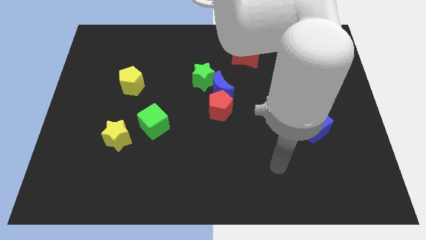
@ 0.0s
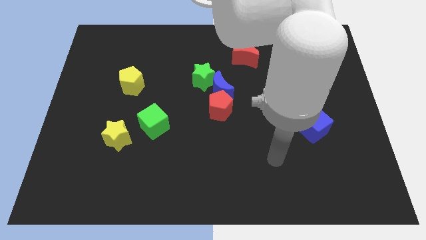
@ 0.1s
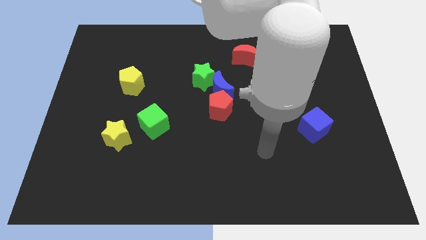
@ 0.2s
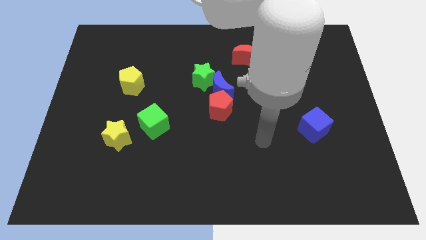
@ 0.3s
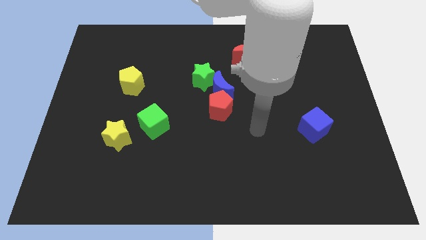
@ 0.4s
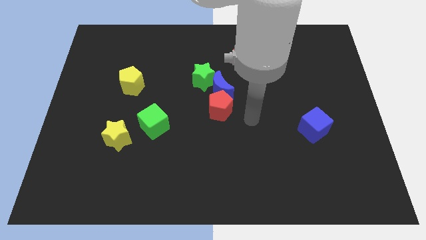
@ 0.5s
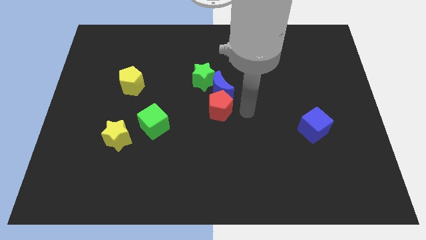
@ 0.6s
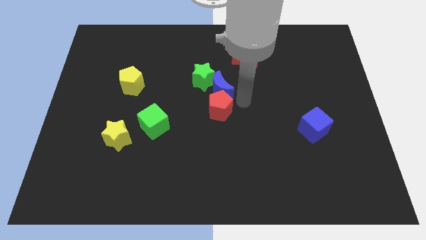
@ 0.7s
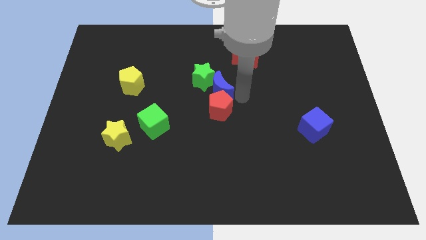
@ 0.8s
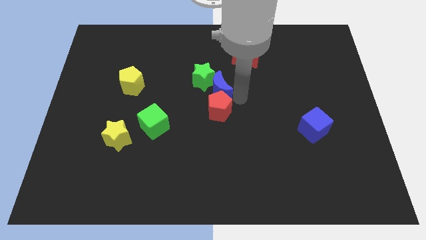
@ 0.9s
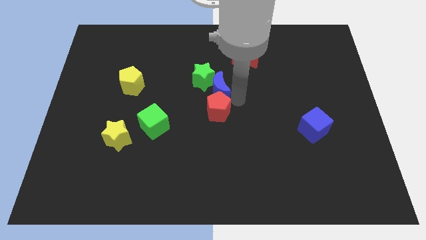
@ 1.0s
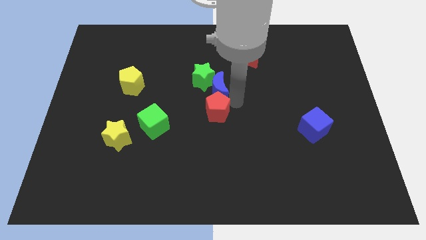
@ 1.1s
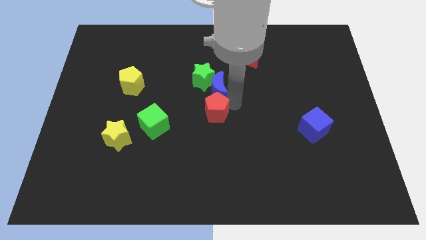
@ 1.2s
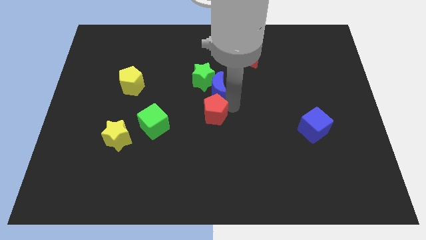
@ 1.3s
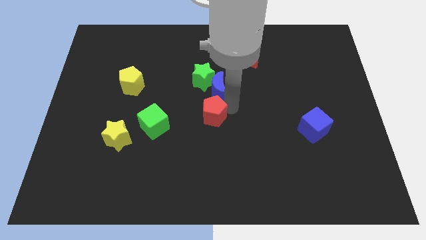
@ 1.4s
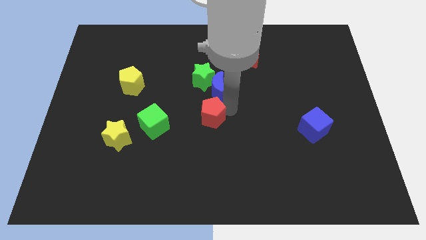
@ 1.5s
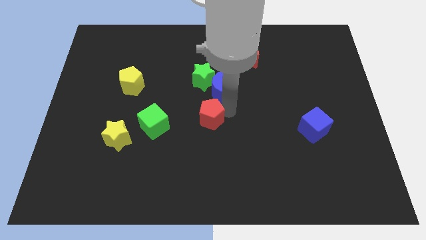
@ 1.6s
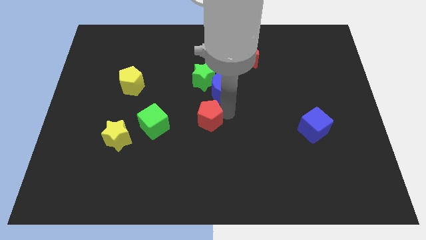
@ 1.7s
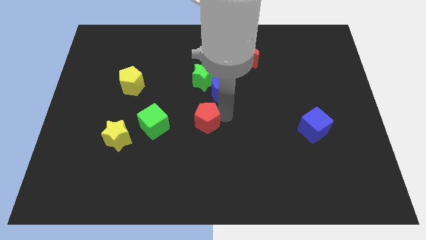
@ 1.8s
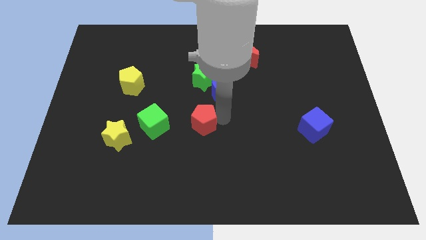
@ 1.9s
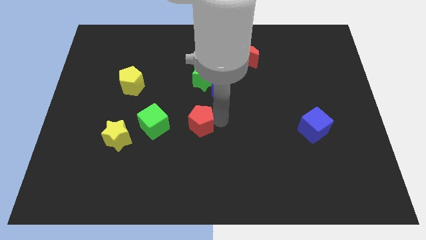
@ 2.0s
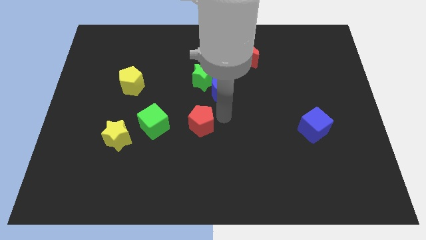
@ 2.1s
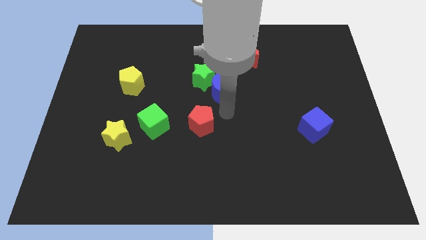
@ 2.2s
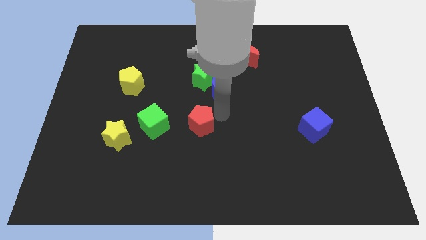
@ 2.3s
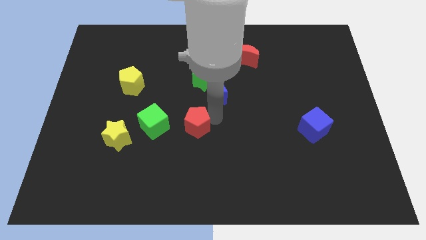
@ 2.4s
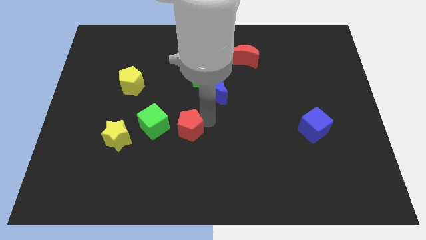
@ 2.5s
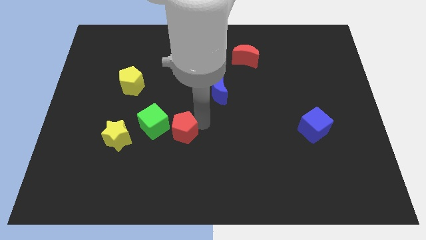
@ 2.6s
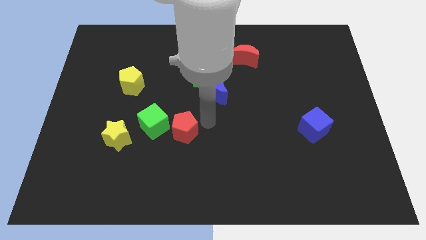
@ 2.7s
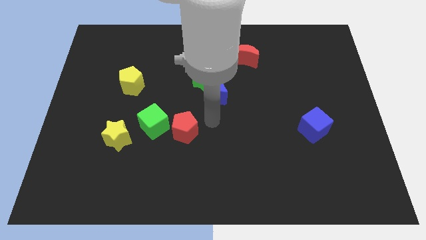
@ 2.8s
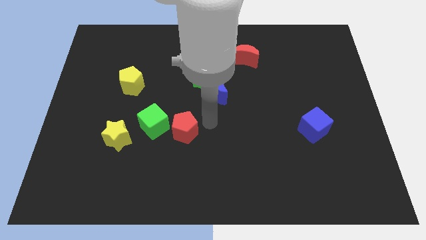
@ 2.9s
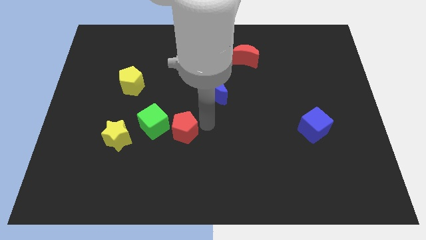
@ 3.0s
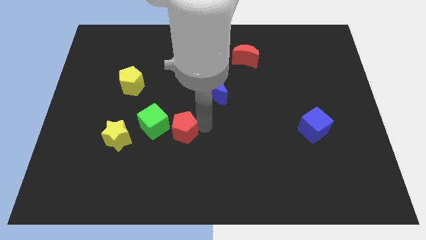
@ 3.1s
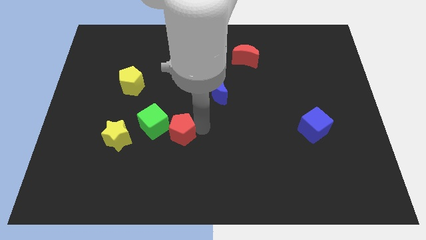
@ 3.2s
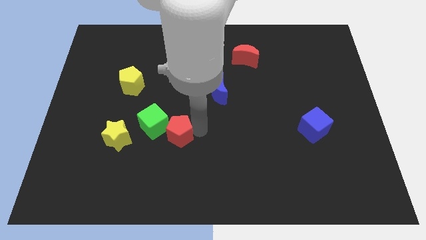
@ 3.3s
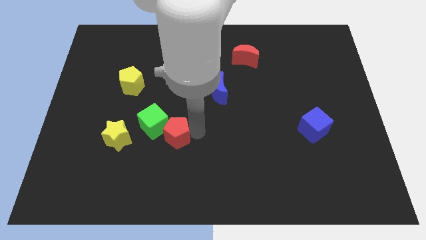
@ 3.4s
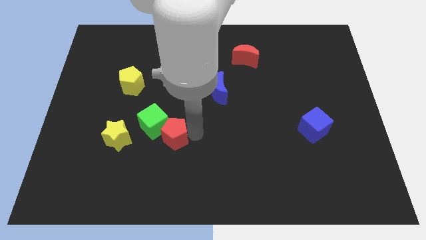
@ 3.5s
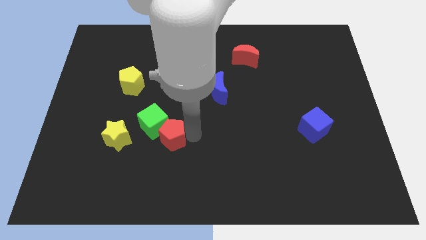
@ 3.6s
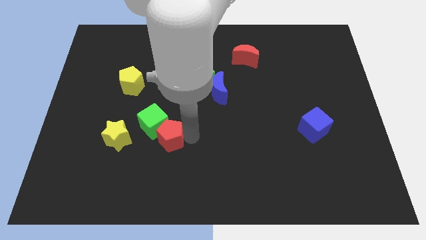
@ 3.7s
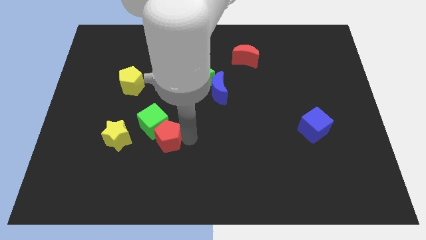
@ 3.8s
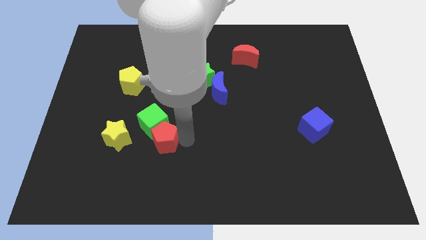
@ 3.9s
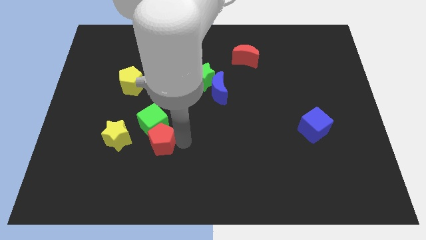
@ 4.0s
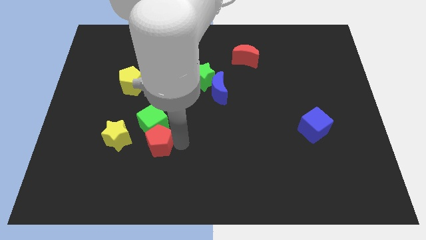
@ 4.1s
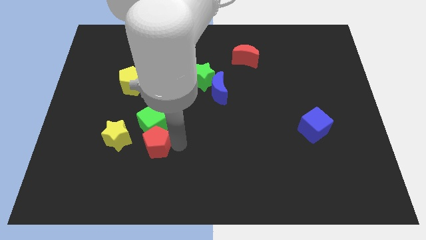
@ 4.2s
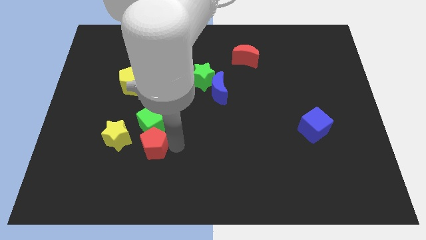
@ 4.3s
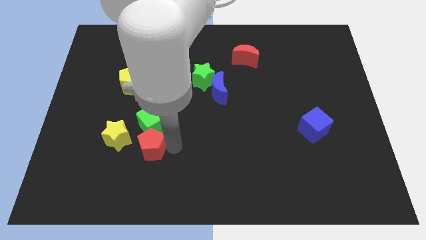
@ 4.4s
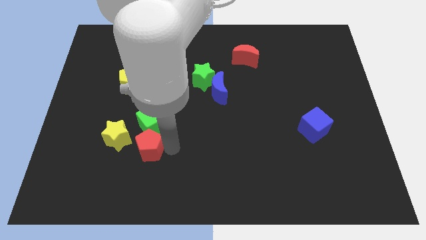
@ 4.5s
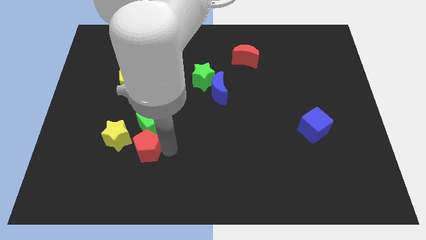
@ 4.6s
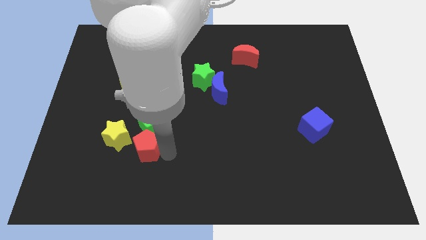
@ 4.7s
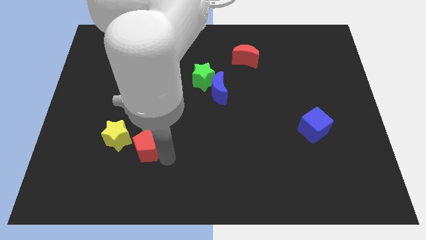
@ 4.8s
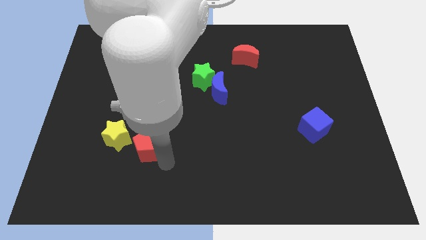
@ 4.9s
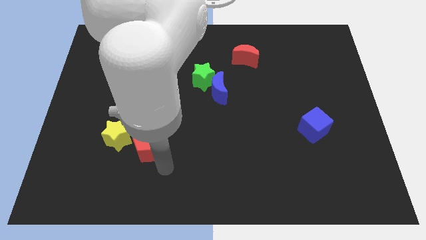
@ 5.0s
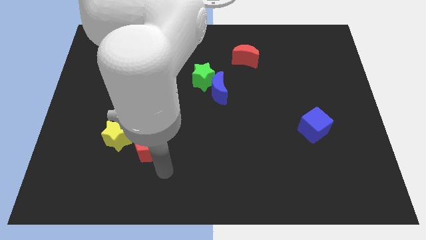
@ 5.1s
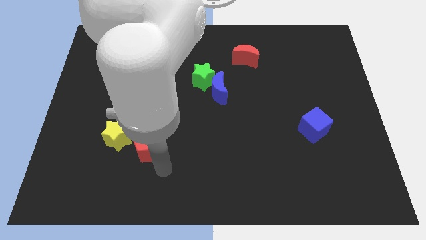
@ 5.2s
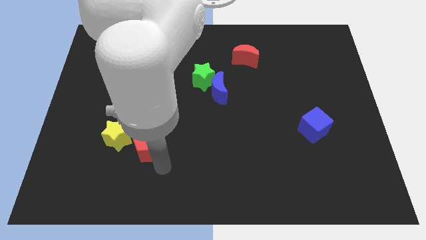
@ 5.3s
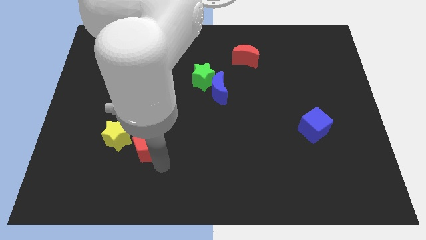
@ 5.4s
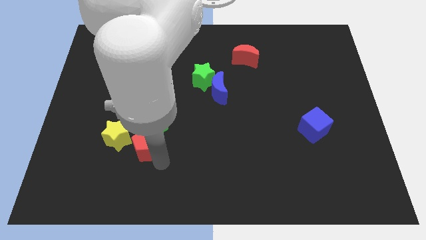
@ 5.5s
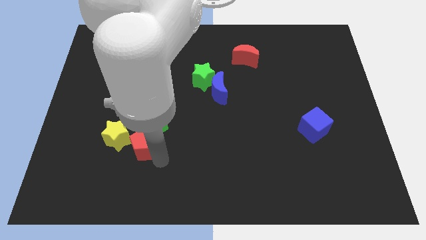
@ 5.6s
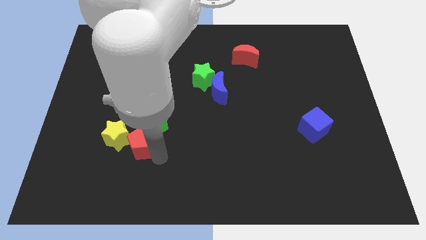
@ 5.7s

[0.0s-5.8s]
put the red pentagon towards the yellow star
